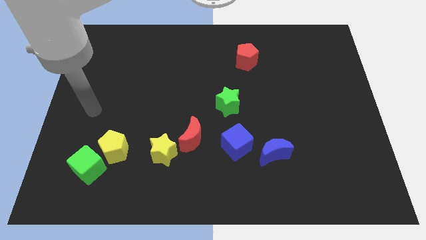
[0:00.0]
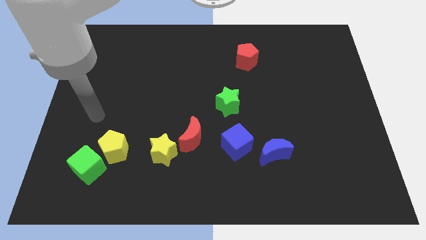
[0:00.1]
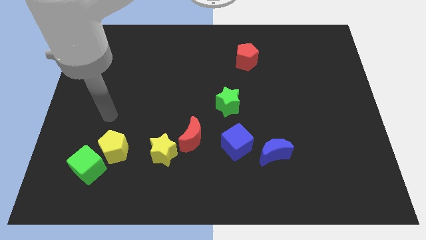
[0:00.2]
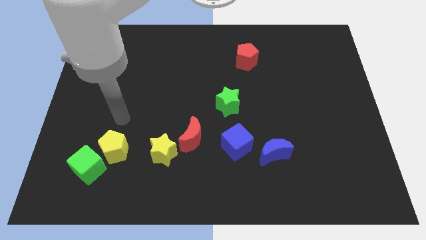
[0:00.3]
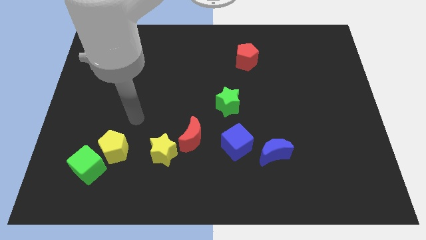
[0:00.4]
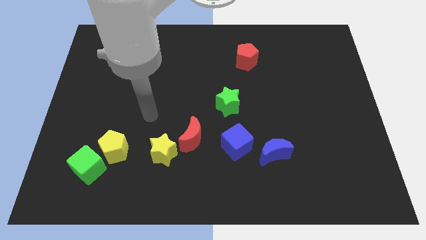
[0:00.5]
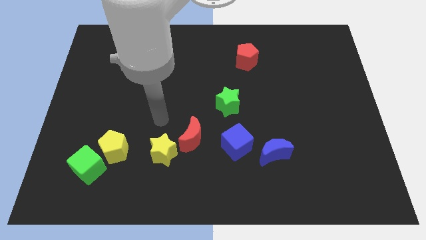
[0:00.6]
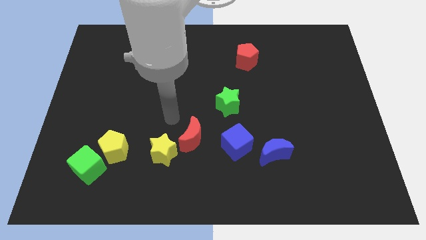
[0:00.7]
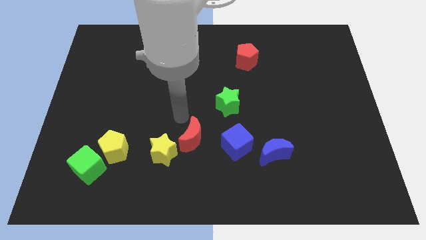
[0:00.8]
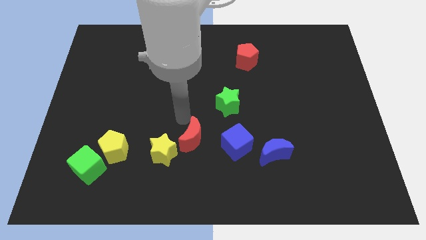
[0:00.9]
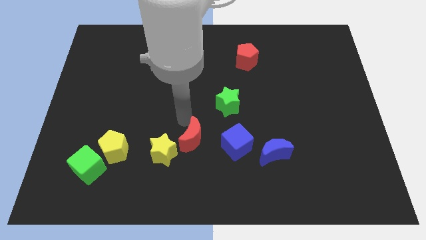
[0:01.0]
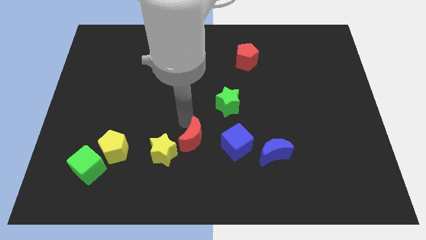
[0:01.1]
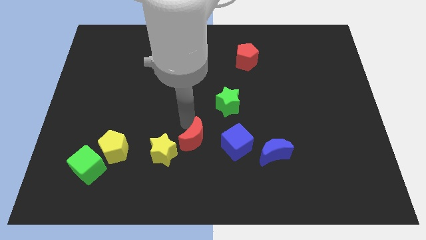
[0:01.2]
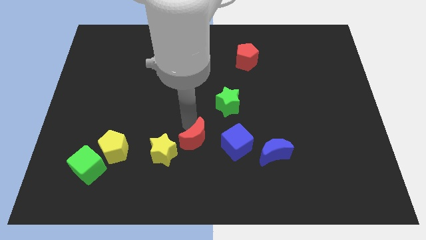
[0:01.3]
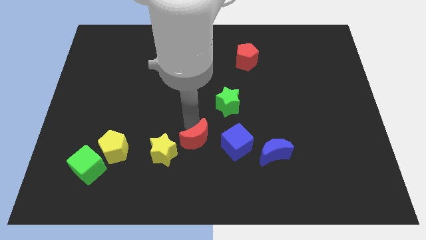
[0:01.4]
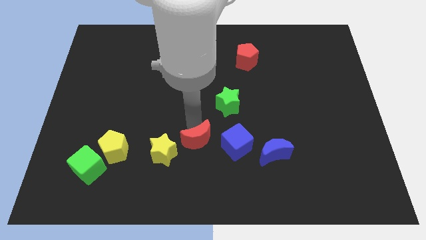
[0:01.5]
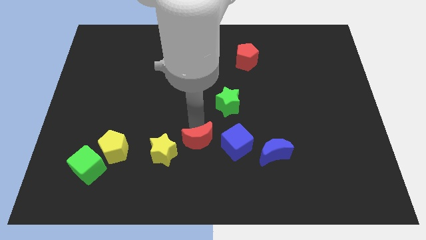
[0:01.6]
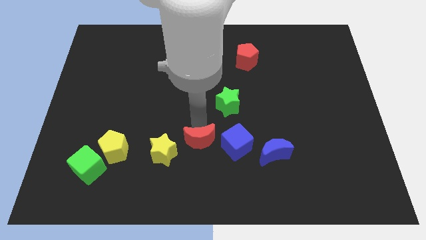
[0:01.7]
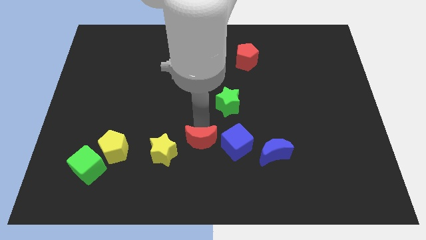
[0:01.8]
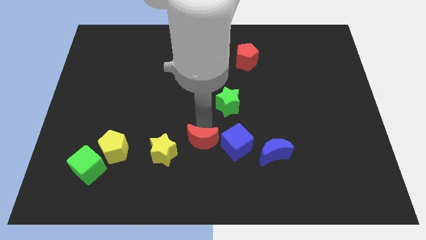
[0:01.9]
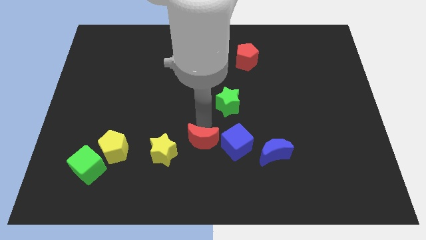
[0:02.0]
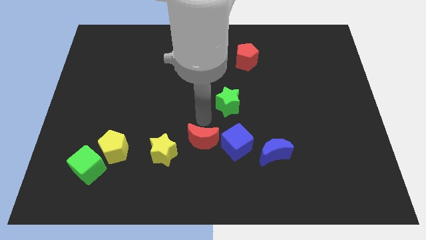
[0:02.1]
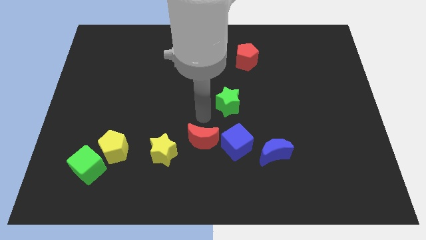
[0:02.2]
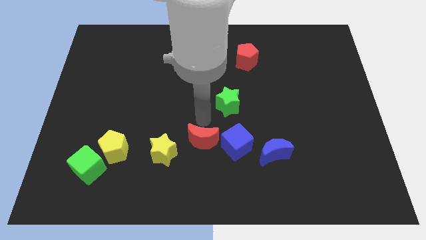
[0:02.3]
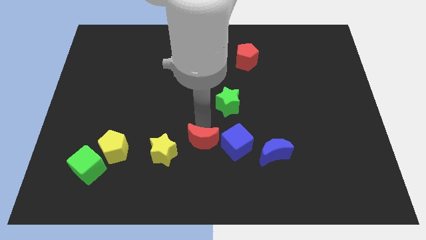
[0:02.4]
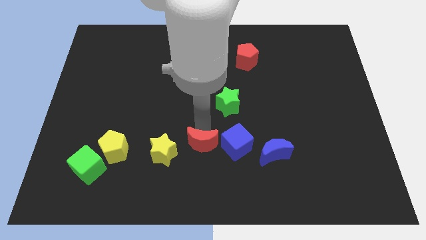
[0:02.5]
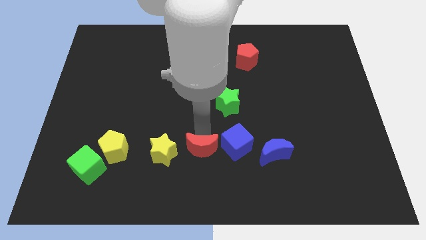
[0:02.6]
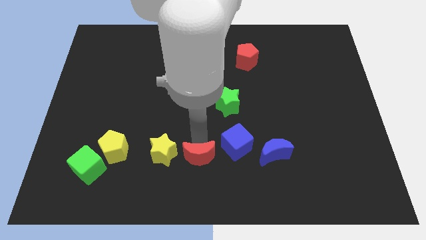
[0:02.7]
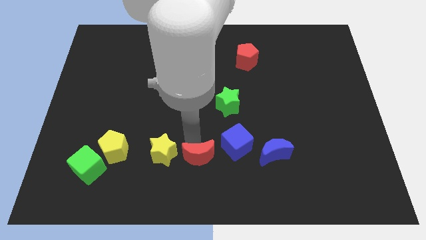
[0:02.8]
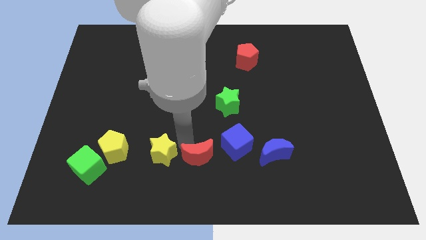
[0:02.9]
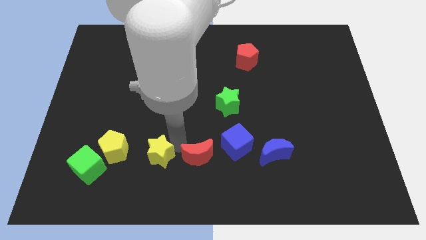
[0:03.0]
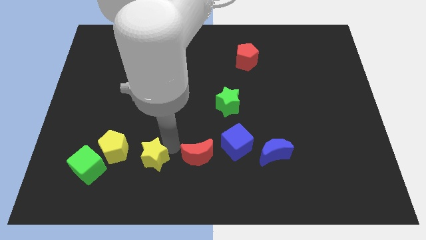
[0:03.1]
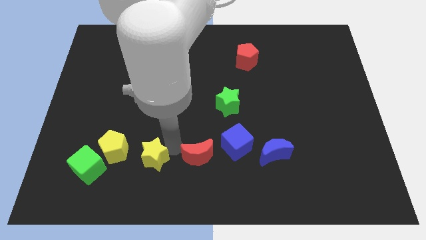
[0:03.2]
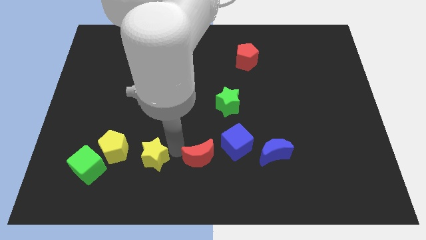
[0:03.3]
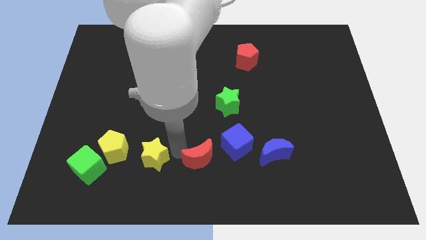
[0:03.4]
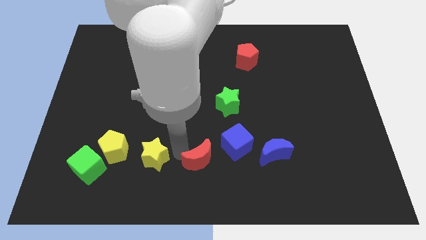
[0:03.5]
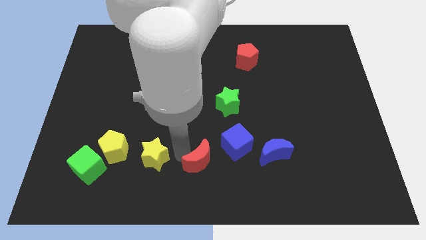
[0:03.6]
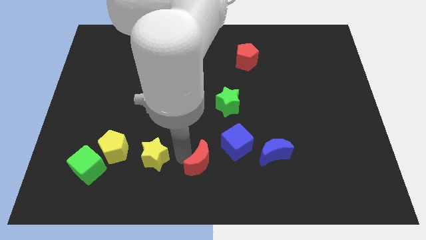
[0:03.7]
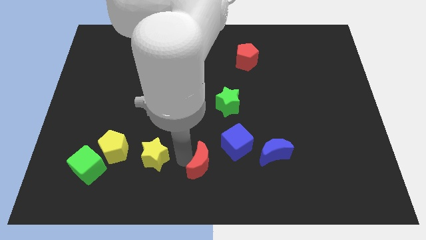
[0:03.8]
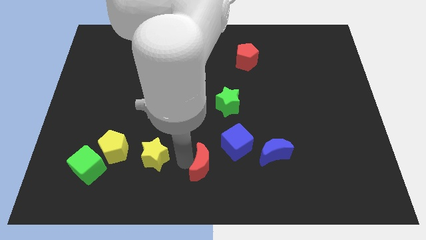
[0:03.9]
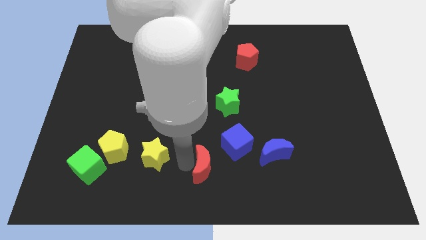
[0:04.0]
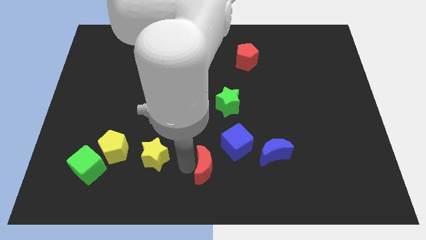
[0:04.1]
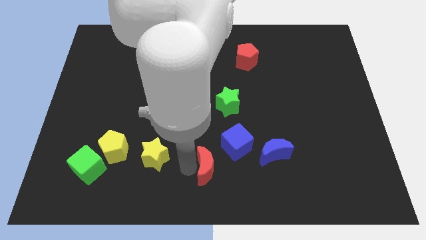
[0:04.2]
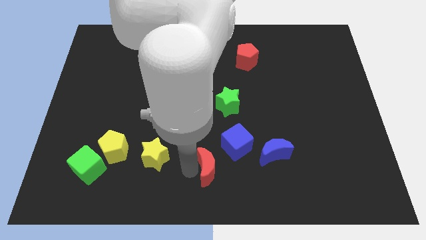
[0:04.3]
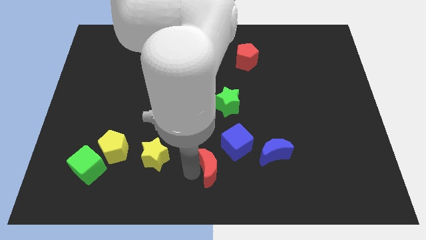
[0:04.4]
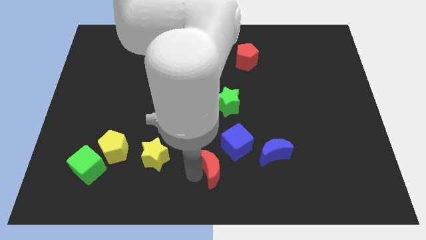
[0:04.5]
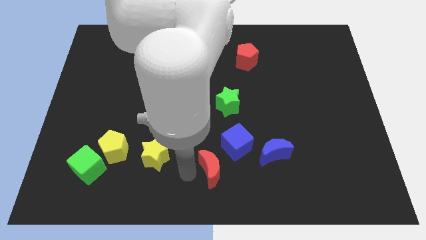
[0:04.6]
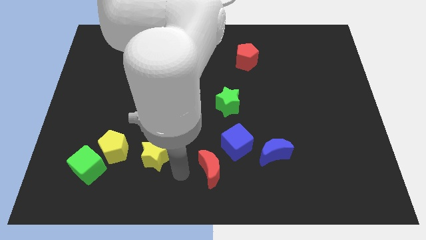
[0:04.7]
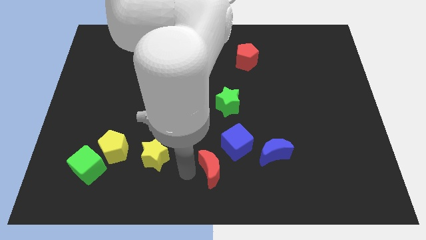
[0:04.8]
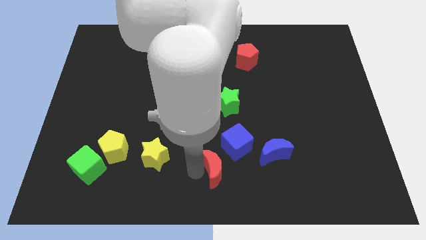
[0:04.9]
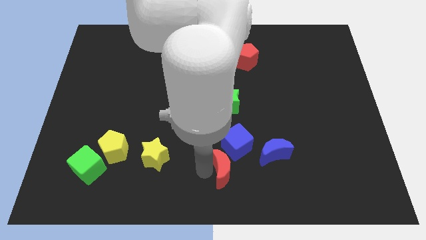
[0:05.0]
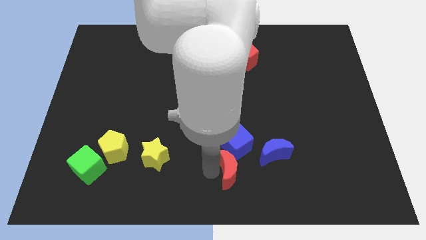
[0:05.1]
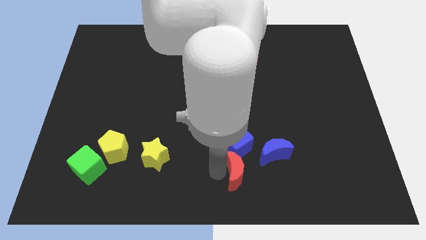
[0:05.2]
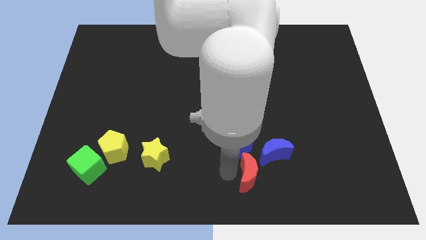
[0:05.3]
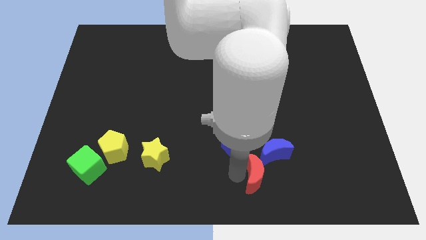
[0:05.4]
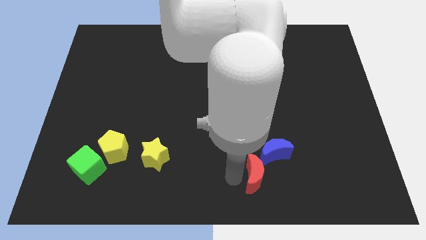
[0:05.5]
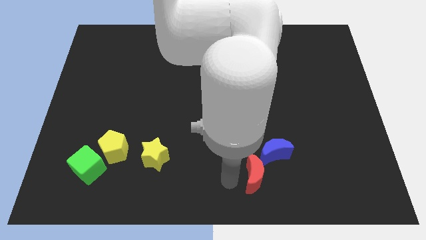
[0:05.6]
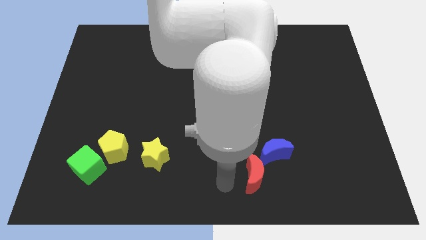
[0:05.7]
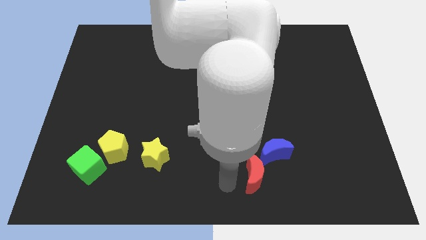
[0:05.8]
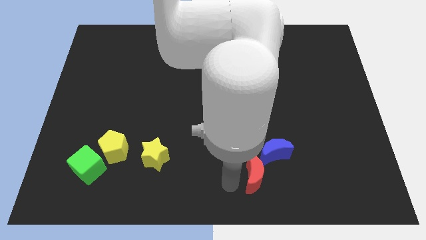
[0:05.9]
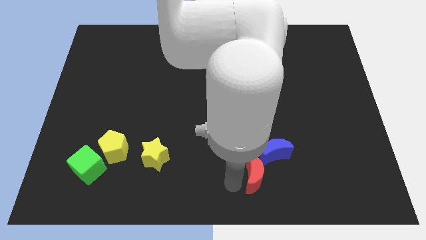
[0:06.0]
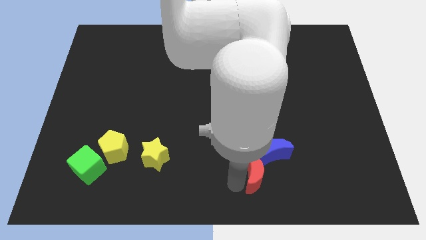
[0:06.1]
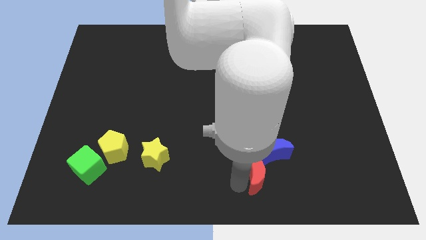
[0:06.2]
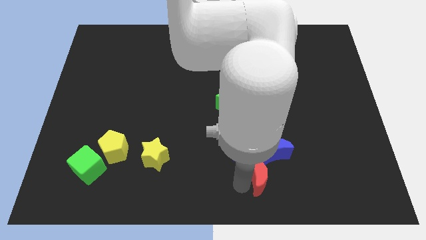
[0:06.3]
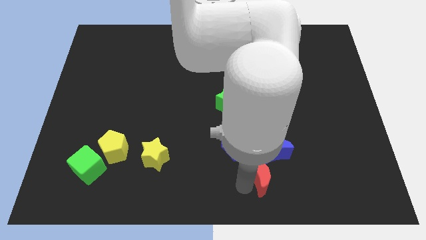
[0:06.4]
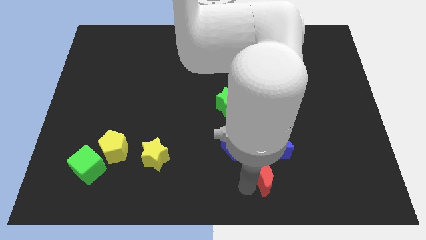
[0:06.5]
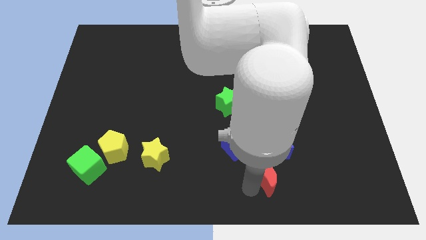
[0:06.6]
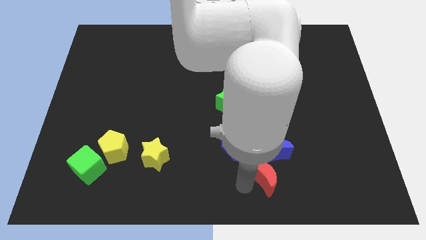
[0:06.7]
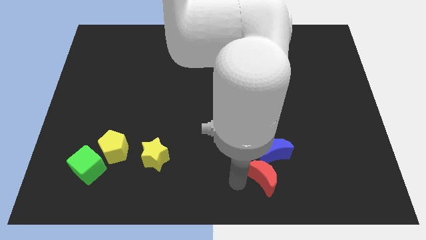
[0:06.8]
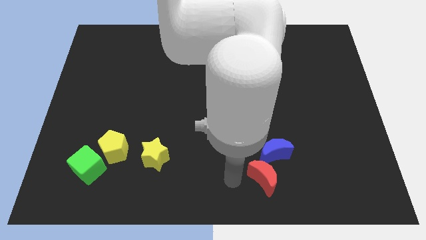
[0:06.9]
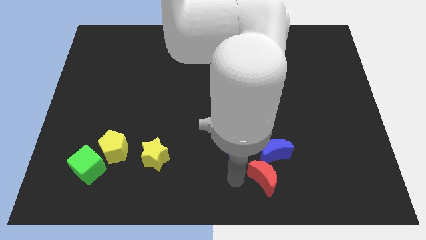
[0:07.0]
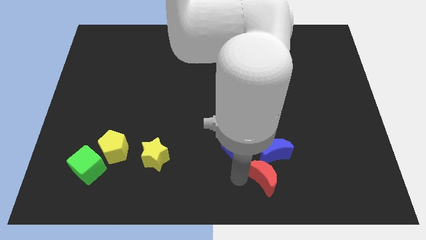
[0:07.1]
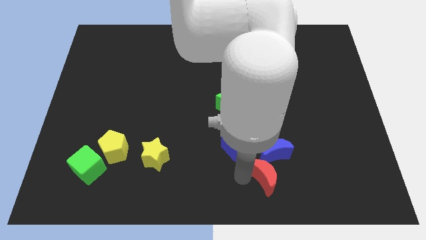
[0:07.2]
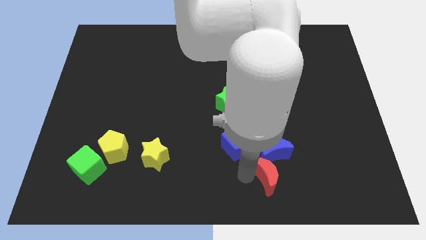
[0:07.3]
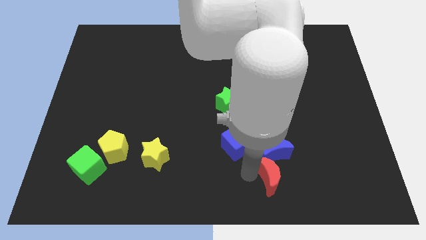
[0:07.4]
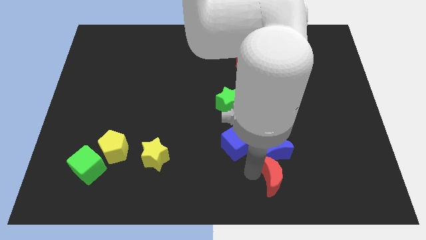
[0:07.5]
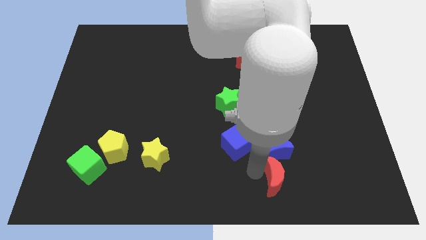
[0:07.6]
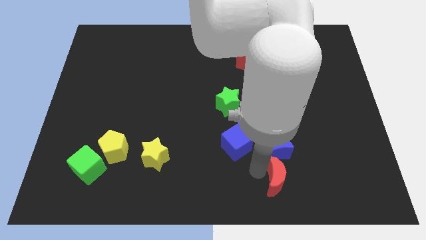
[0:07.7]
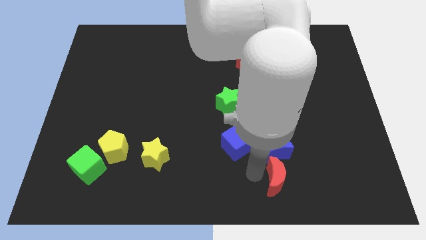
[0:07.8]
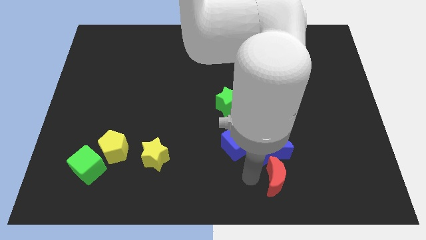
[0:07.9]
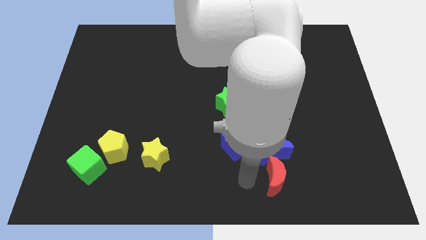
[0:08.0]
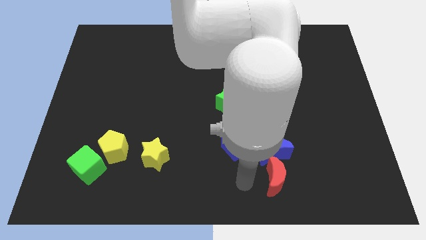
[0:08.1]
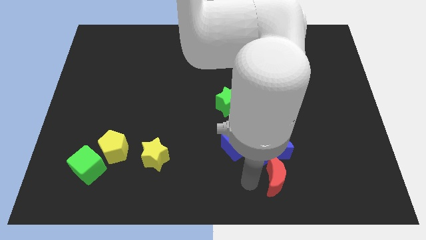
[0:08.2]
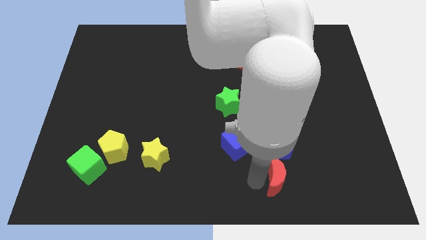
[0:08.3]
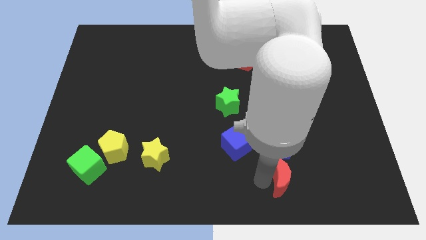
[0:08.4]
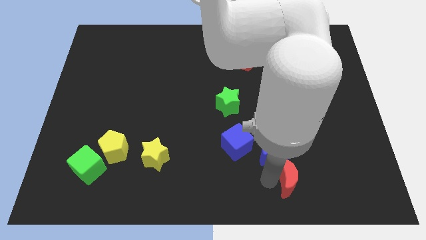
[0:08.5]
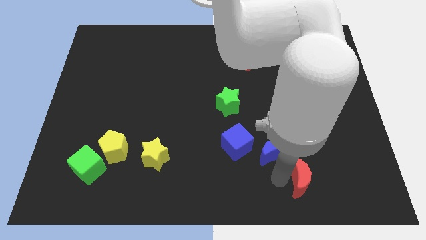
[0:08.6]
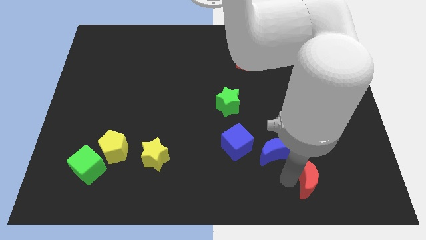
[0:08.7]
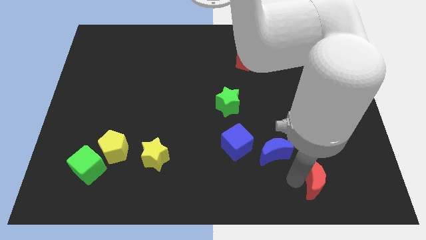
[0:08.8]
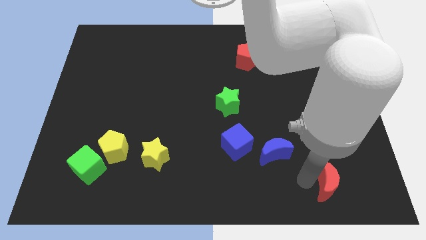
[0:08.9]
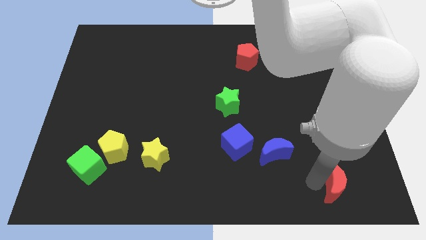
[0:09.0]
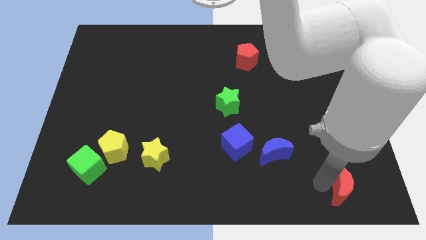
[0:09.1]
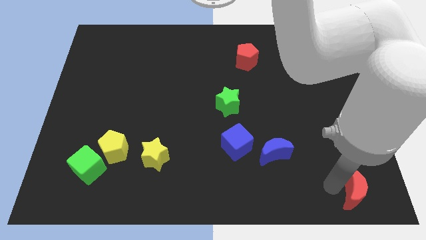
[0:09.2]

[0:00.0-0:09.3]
slide the red moon to the bottom right corner
